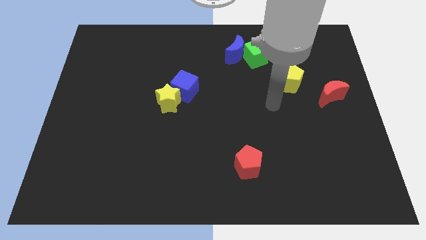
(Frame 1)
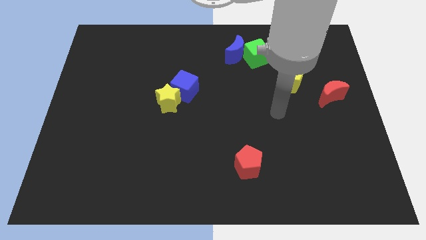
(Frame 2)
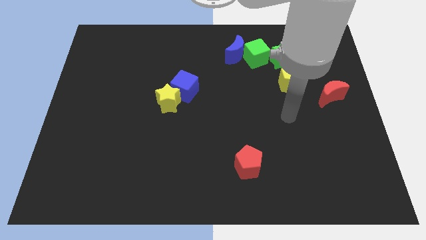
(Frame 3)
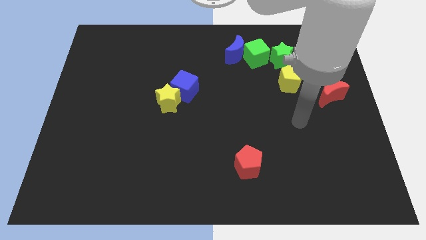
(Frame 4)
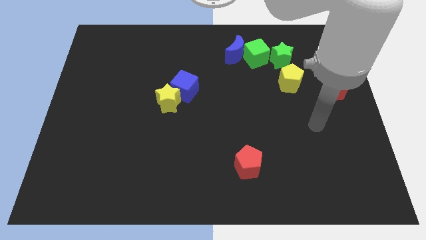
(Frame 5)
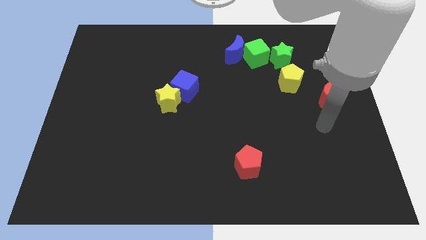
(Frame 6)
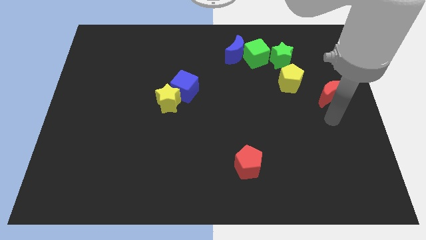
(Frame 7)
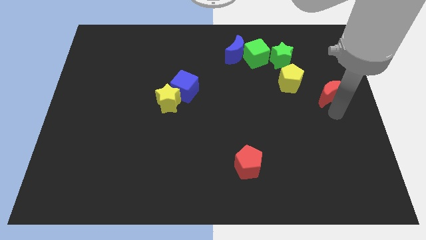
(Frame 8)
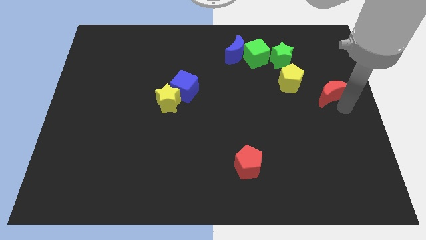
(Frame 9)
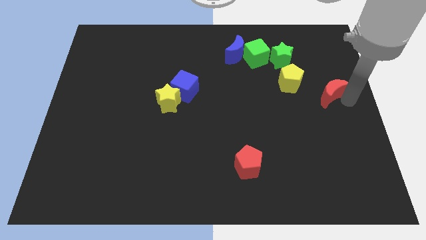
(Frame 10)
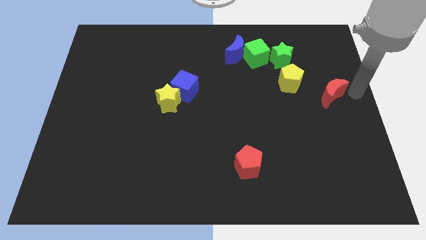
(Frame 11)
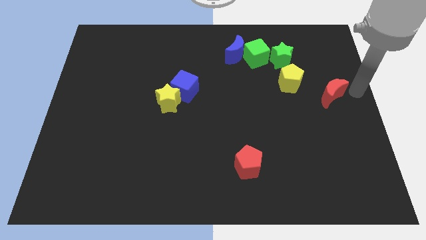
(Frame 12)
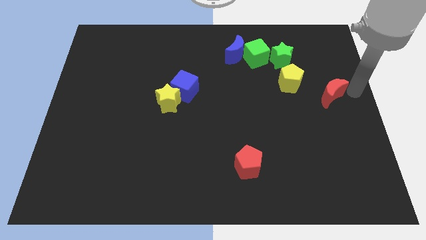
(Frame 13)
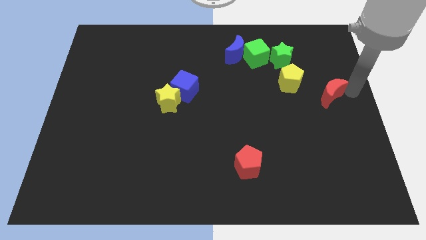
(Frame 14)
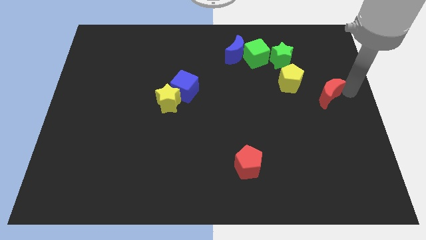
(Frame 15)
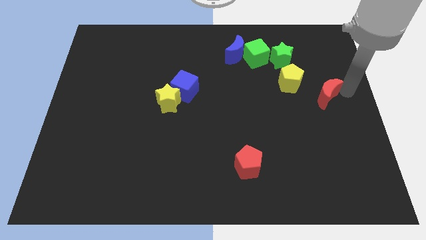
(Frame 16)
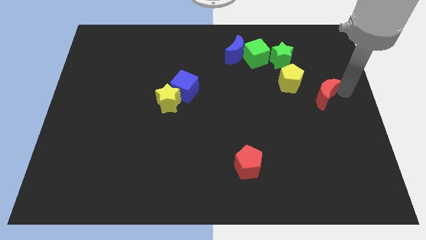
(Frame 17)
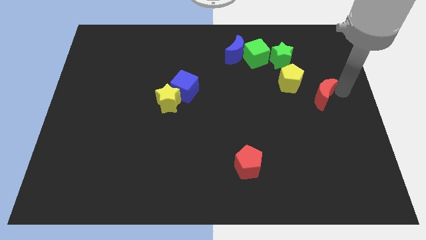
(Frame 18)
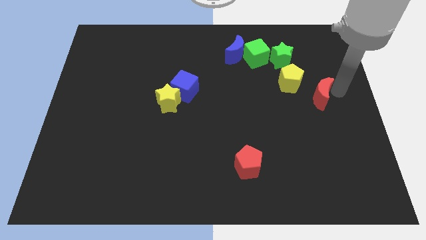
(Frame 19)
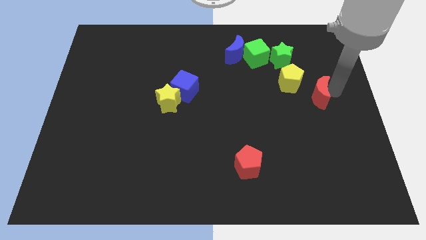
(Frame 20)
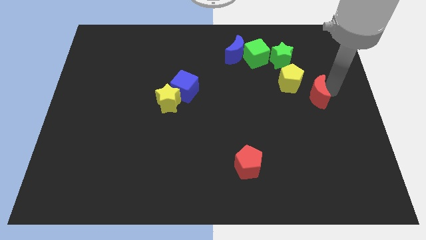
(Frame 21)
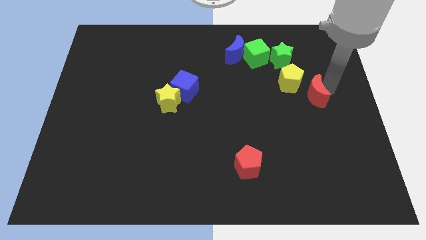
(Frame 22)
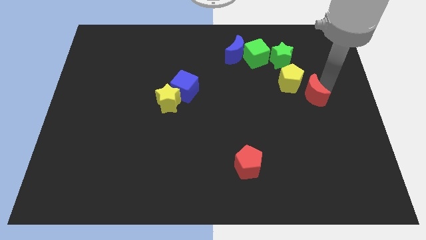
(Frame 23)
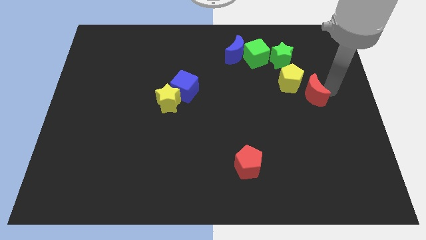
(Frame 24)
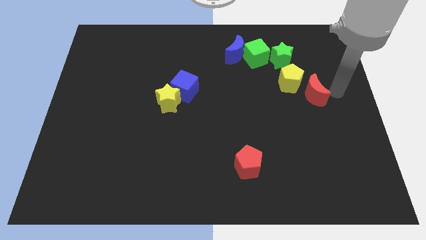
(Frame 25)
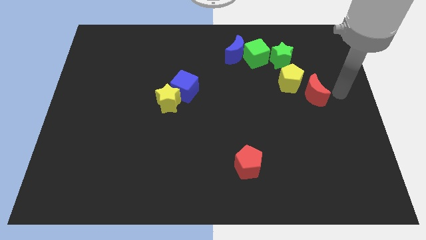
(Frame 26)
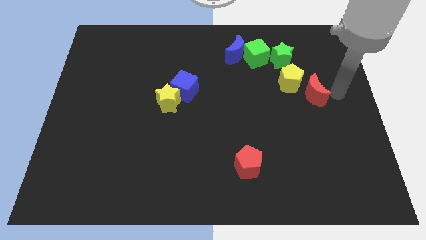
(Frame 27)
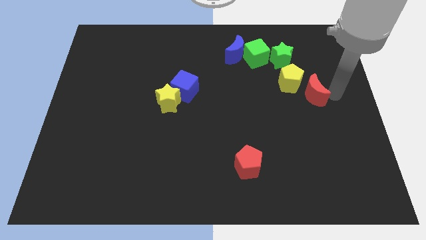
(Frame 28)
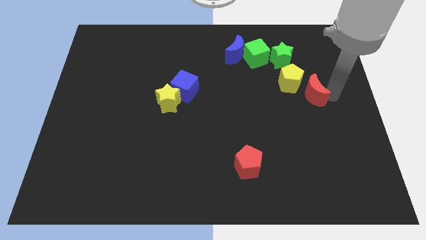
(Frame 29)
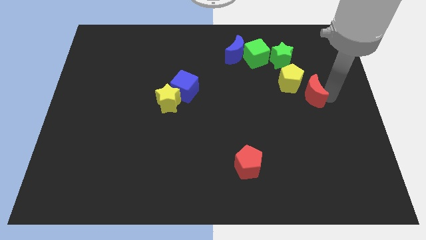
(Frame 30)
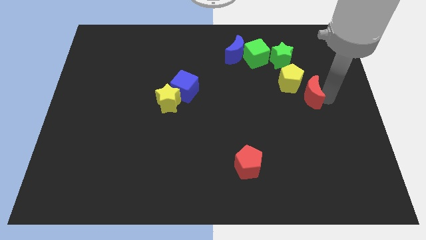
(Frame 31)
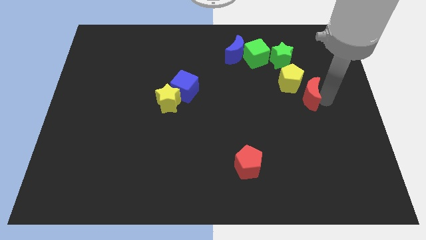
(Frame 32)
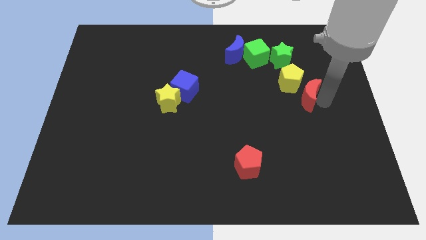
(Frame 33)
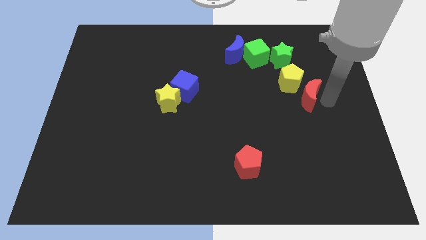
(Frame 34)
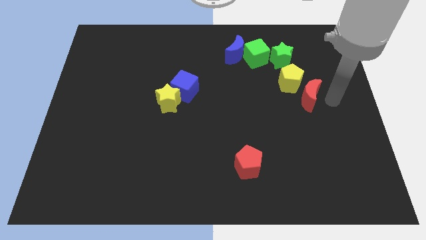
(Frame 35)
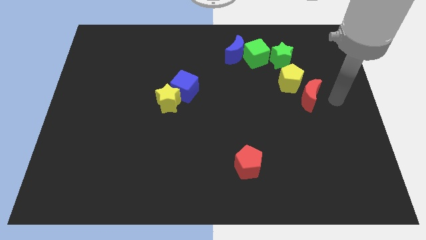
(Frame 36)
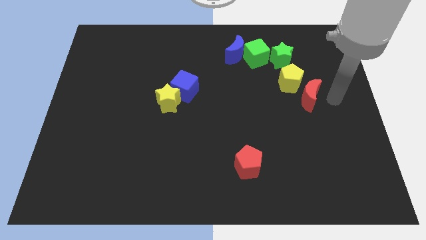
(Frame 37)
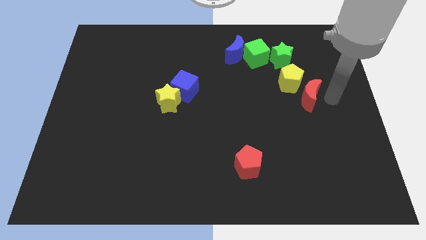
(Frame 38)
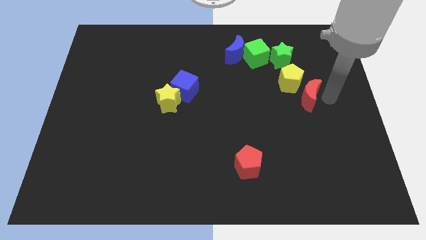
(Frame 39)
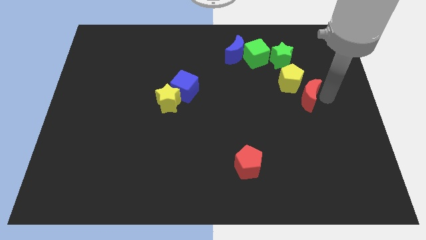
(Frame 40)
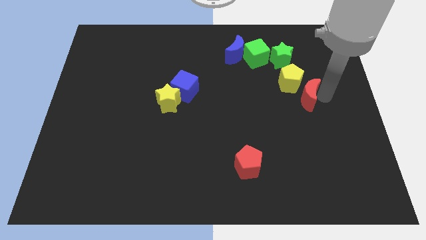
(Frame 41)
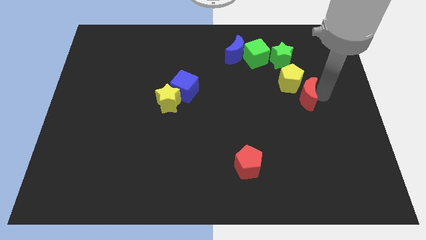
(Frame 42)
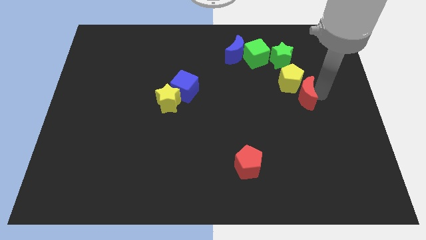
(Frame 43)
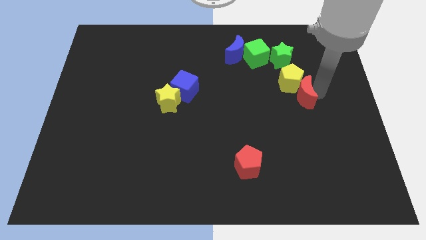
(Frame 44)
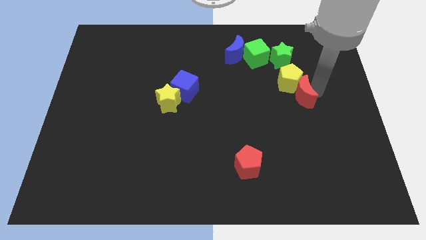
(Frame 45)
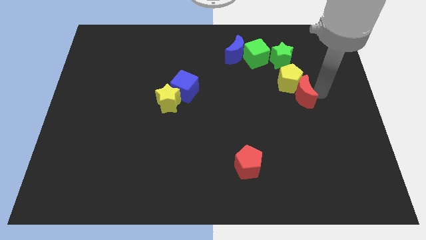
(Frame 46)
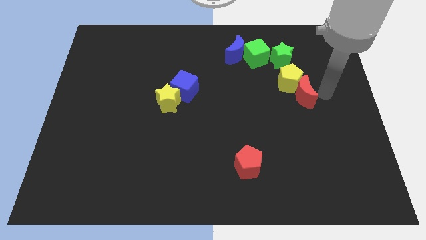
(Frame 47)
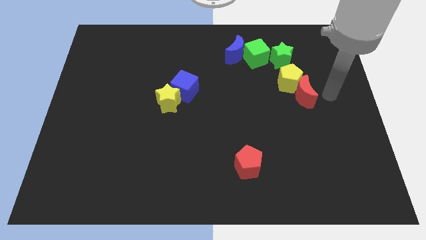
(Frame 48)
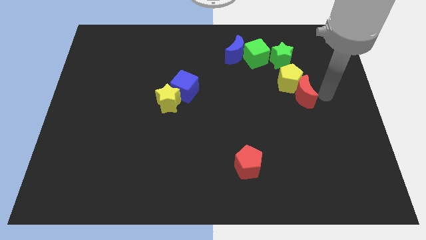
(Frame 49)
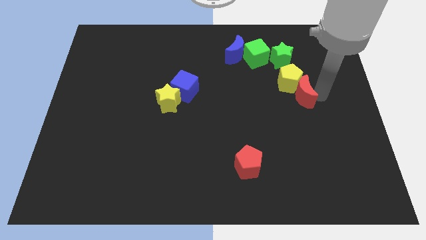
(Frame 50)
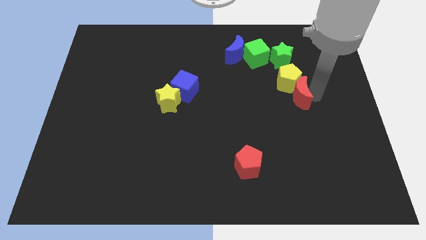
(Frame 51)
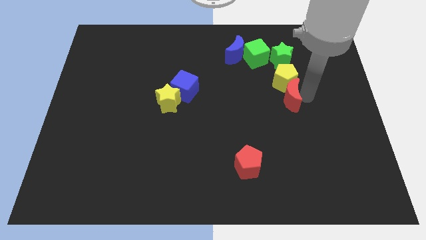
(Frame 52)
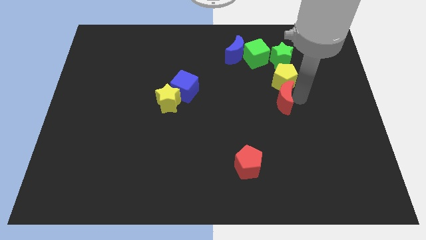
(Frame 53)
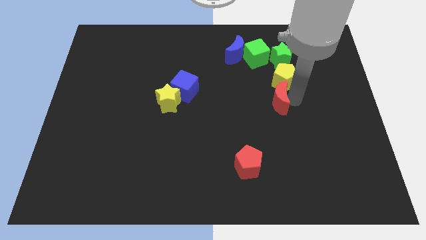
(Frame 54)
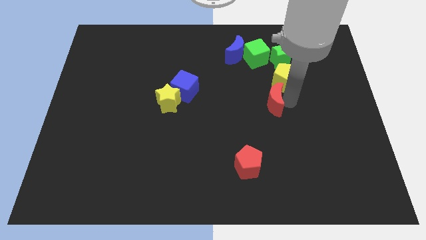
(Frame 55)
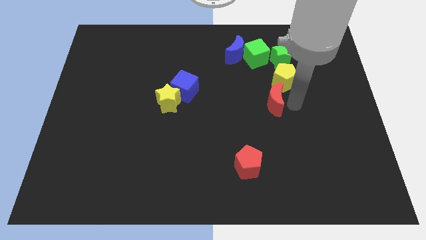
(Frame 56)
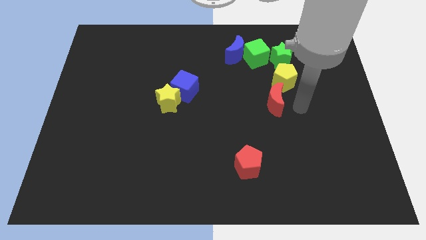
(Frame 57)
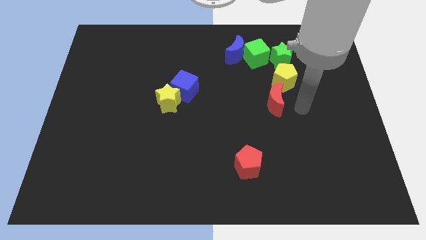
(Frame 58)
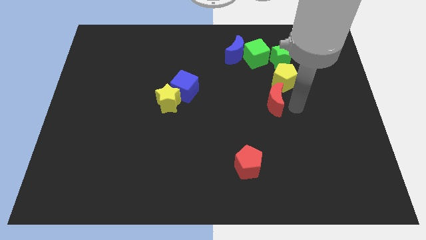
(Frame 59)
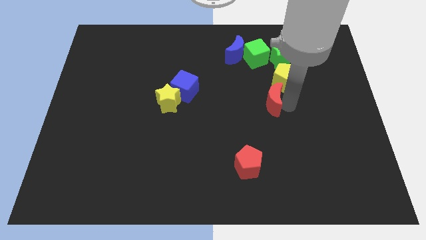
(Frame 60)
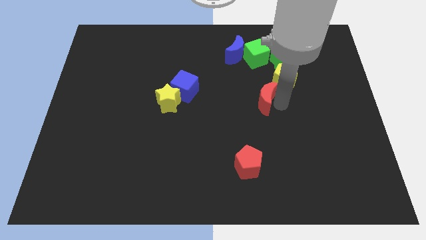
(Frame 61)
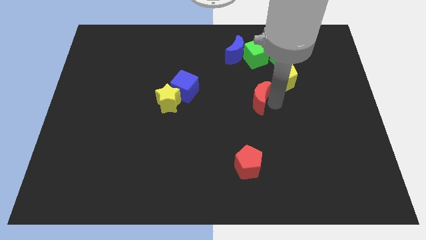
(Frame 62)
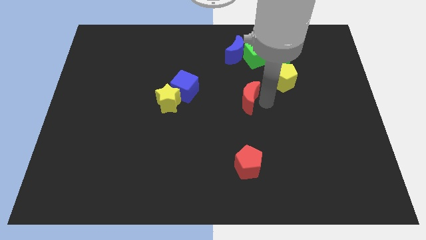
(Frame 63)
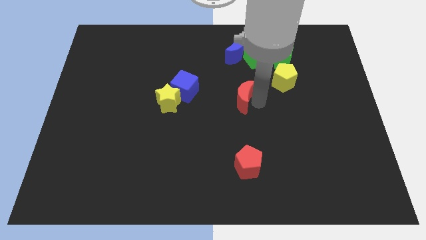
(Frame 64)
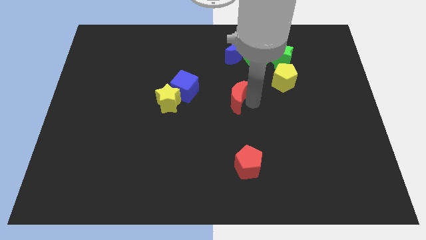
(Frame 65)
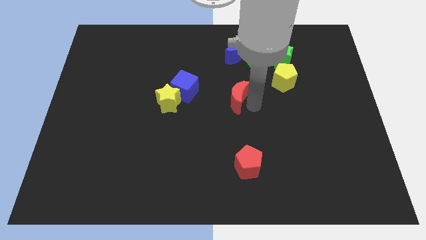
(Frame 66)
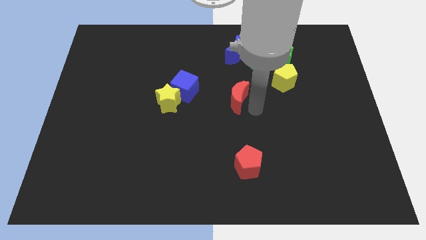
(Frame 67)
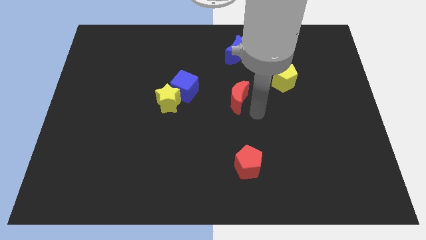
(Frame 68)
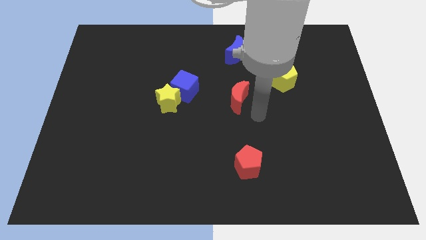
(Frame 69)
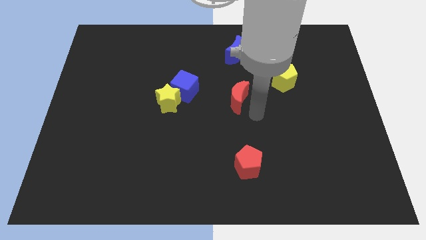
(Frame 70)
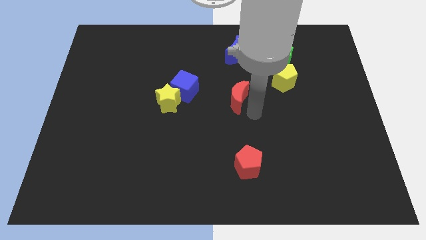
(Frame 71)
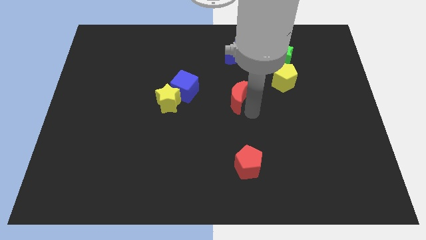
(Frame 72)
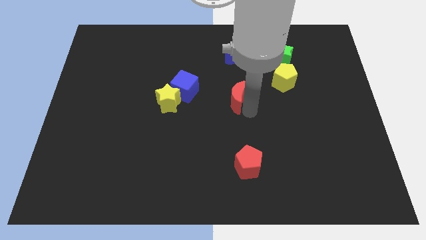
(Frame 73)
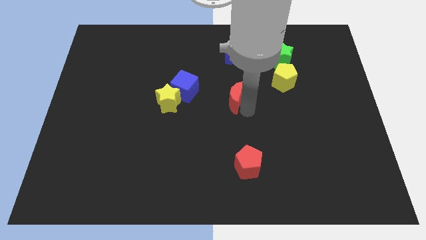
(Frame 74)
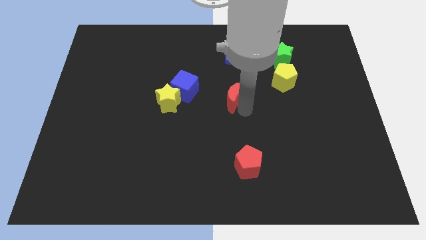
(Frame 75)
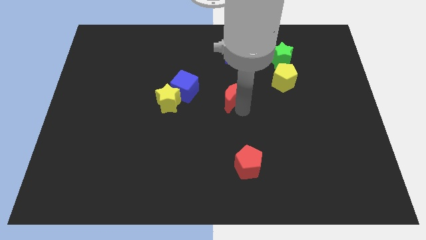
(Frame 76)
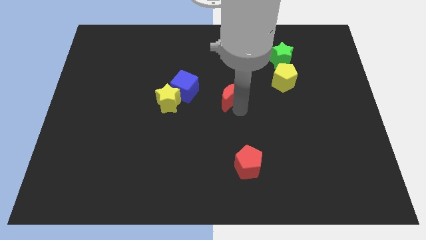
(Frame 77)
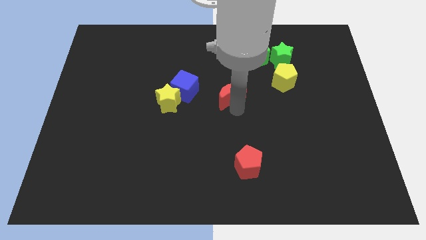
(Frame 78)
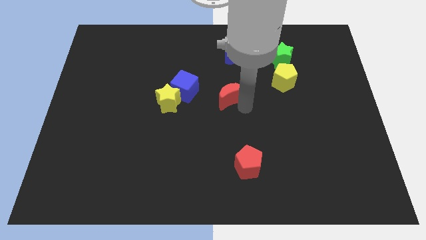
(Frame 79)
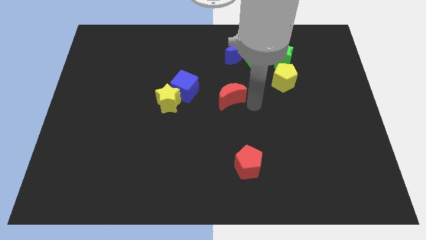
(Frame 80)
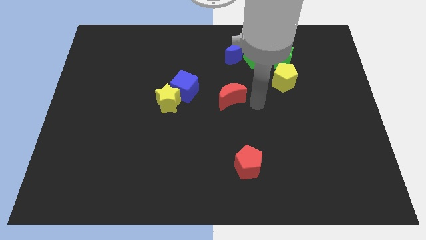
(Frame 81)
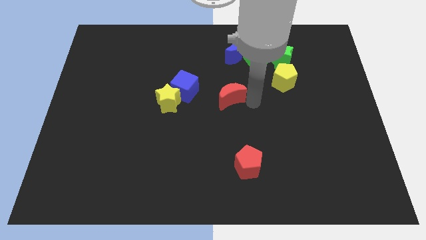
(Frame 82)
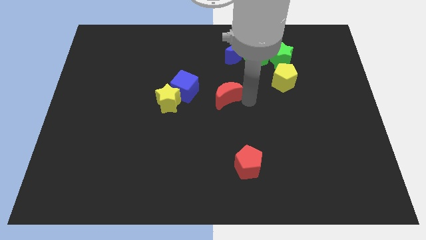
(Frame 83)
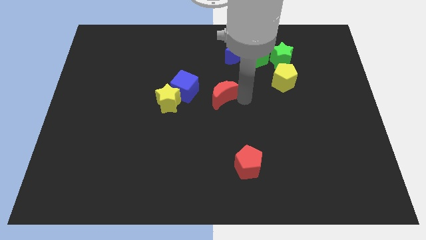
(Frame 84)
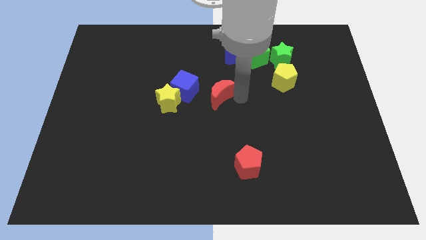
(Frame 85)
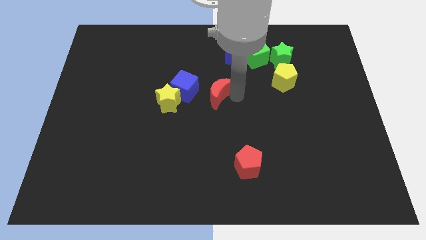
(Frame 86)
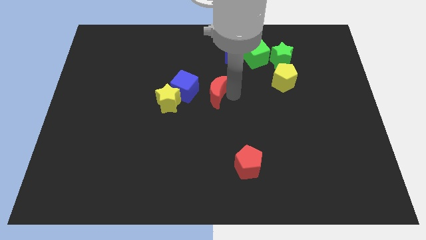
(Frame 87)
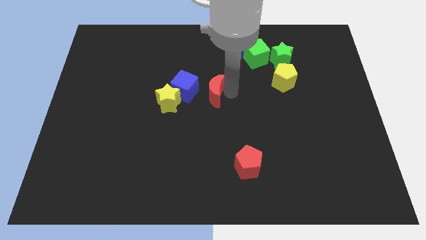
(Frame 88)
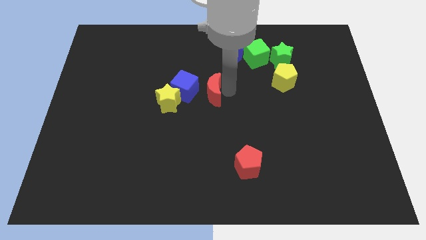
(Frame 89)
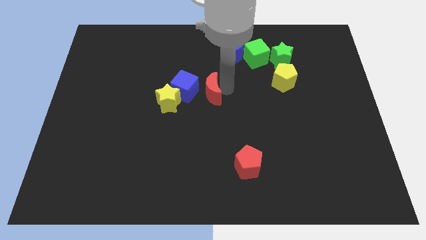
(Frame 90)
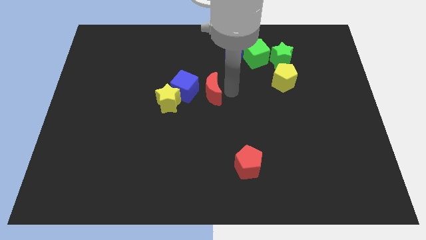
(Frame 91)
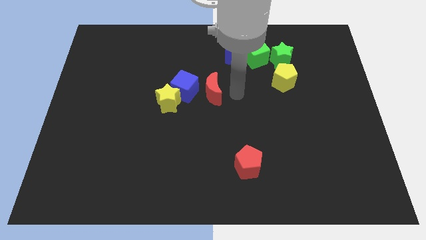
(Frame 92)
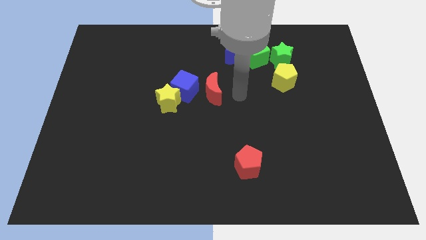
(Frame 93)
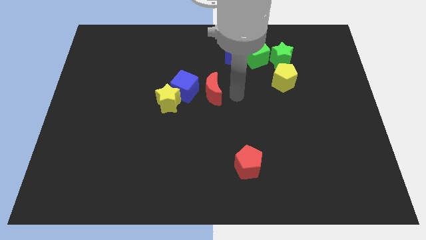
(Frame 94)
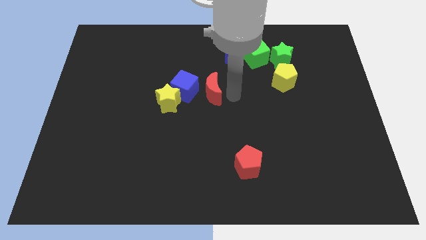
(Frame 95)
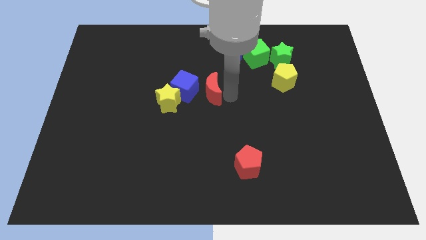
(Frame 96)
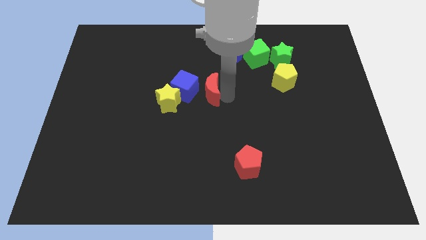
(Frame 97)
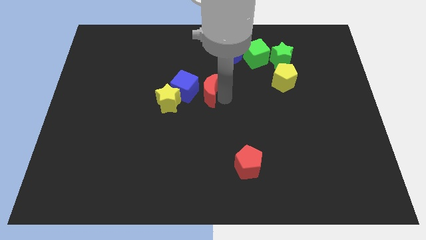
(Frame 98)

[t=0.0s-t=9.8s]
slide the red moon close to the blue cube
